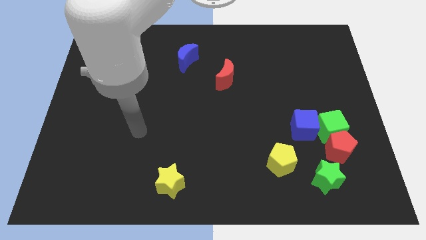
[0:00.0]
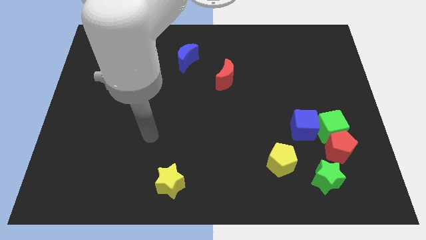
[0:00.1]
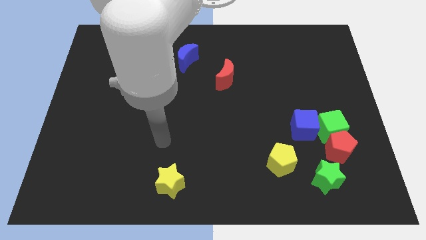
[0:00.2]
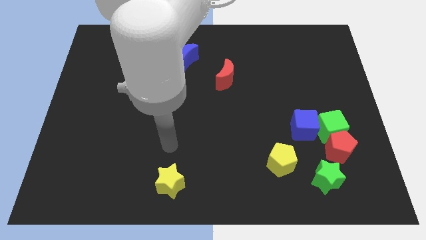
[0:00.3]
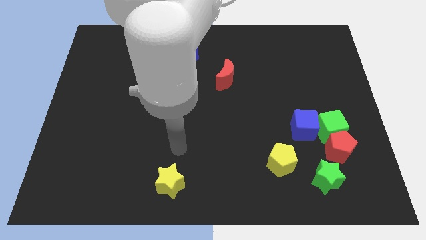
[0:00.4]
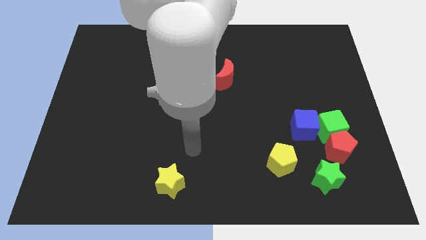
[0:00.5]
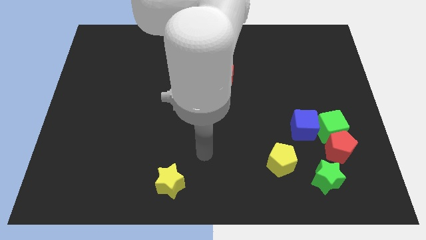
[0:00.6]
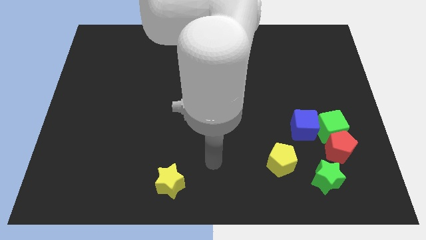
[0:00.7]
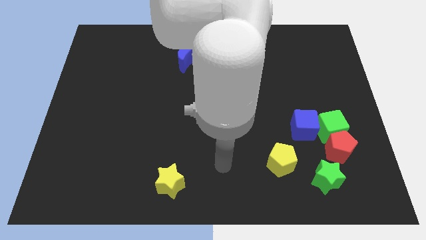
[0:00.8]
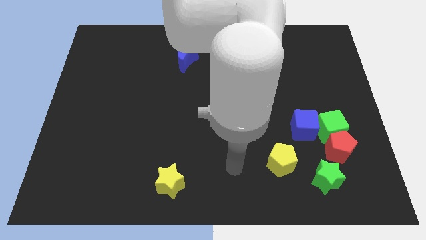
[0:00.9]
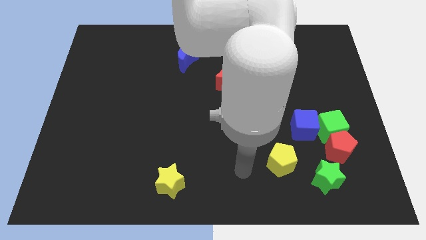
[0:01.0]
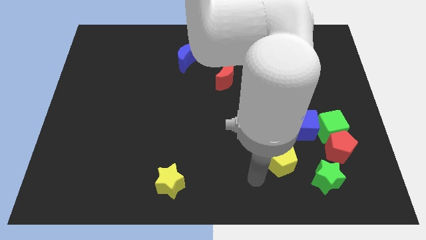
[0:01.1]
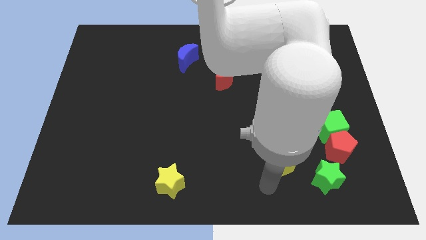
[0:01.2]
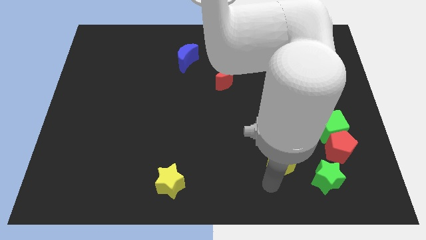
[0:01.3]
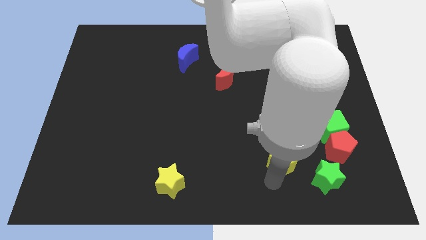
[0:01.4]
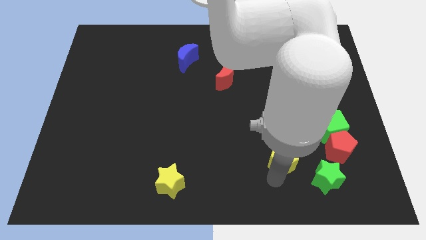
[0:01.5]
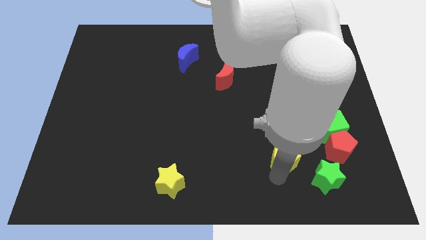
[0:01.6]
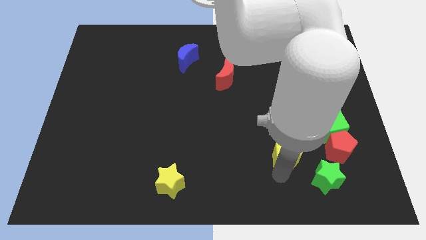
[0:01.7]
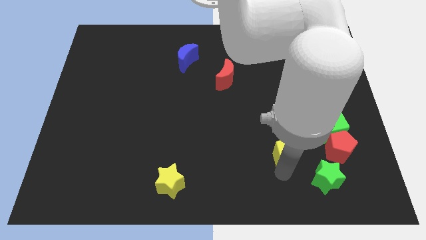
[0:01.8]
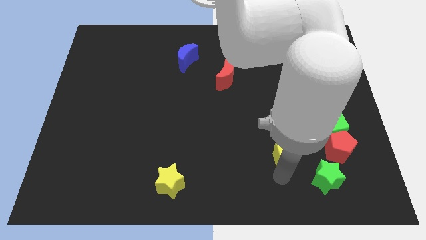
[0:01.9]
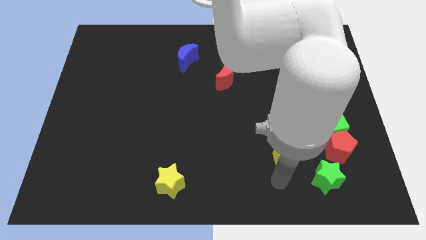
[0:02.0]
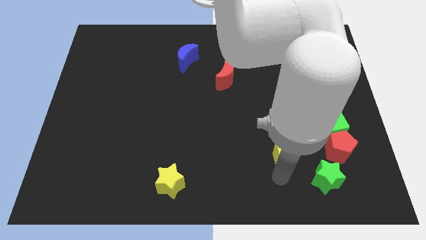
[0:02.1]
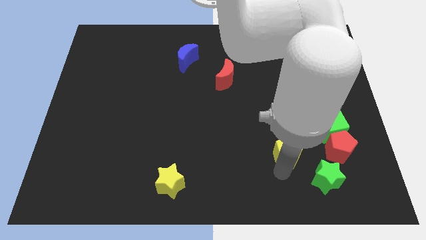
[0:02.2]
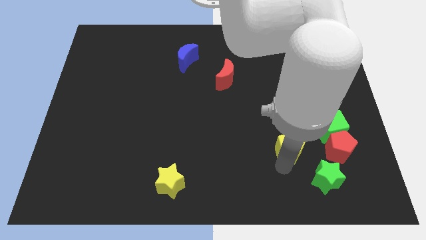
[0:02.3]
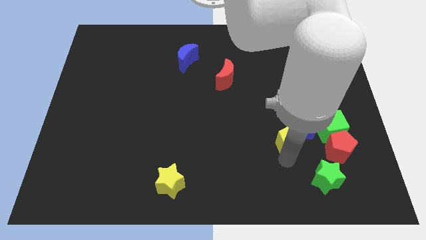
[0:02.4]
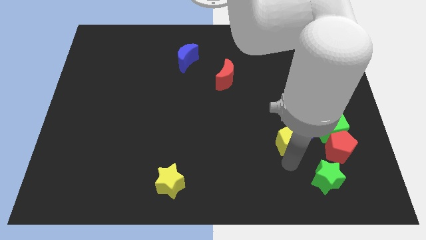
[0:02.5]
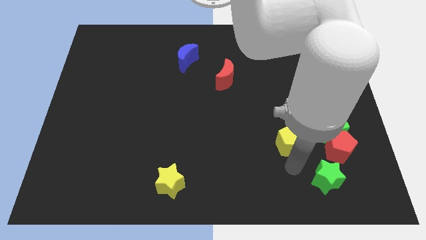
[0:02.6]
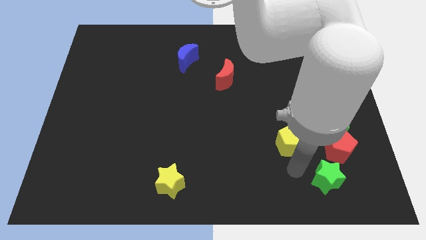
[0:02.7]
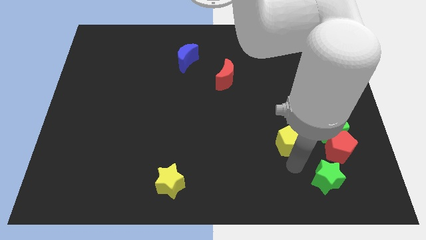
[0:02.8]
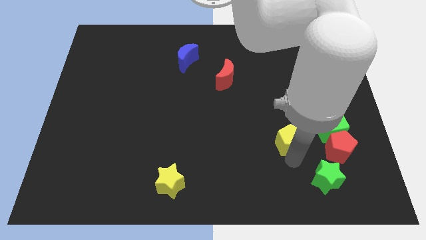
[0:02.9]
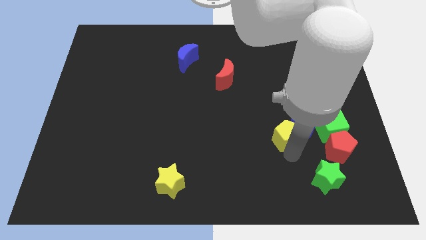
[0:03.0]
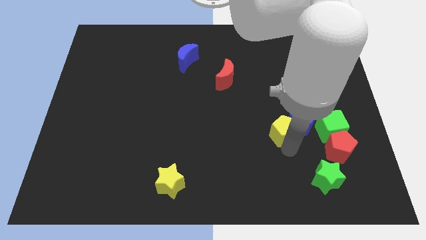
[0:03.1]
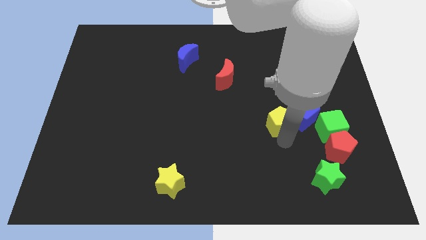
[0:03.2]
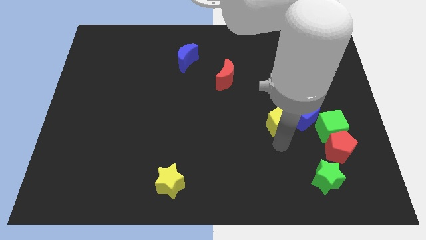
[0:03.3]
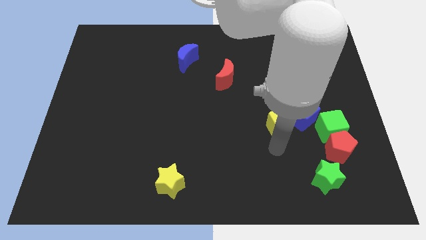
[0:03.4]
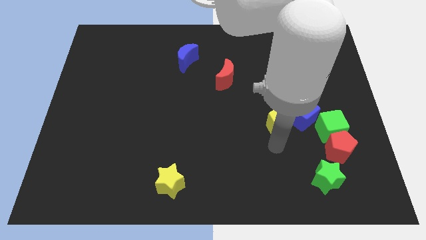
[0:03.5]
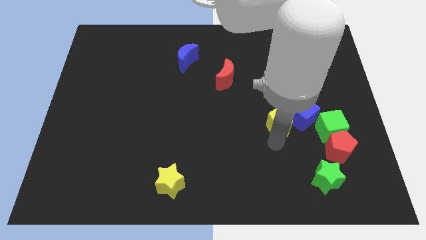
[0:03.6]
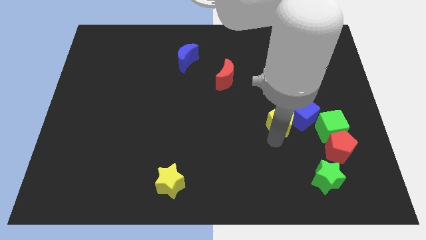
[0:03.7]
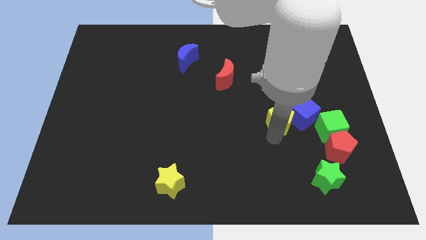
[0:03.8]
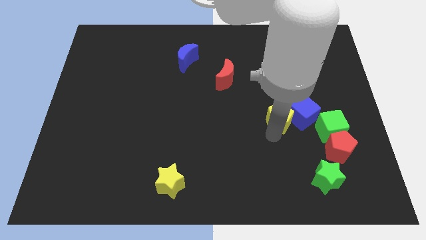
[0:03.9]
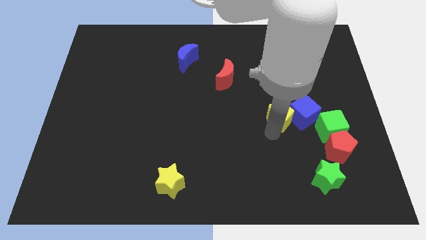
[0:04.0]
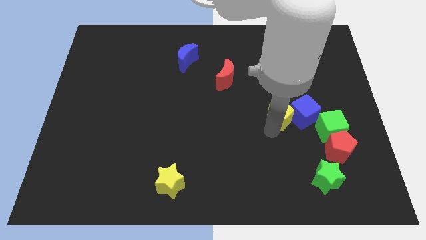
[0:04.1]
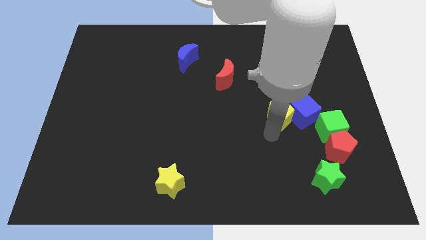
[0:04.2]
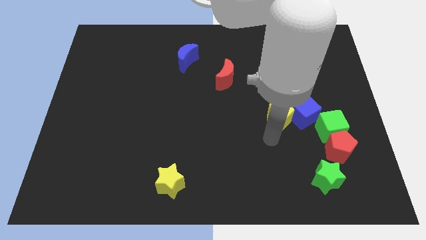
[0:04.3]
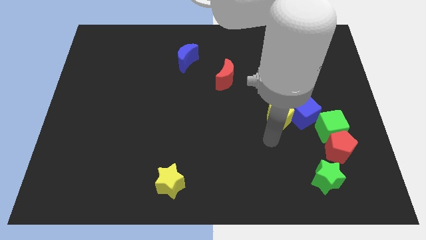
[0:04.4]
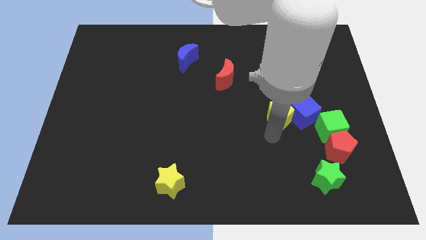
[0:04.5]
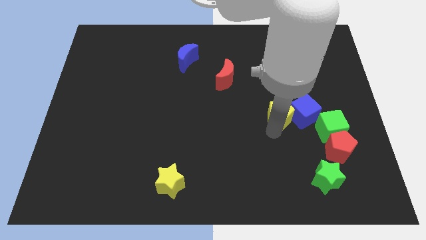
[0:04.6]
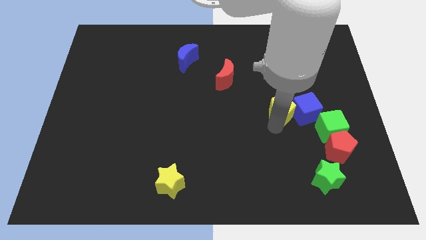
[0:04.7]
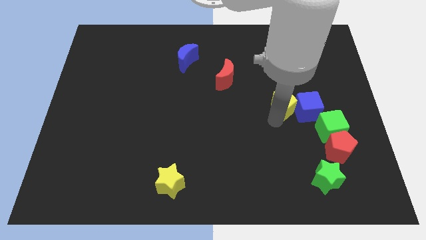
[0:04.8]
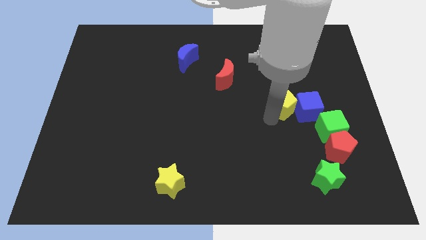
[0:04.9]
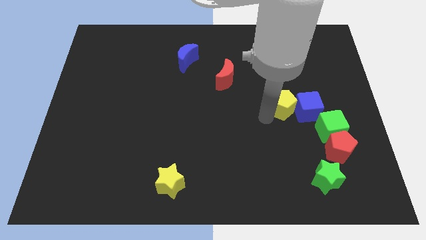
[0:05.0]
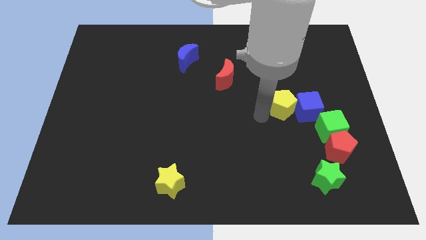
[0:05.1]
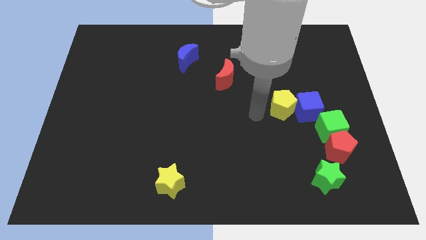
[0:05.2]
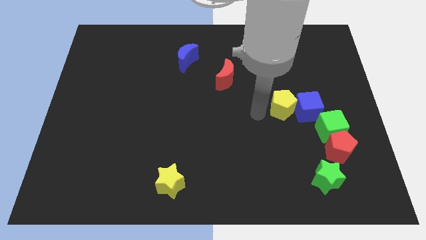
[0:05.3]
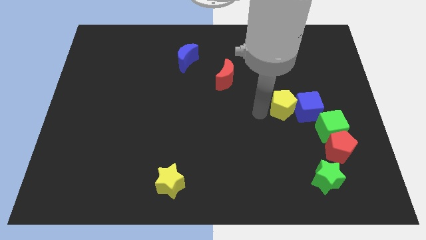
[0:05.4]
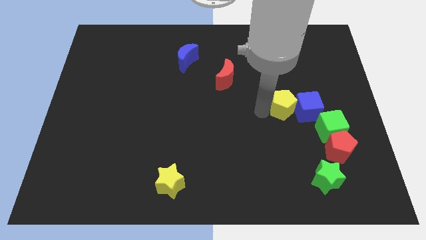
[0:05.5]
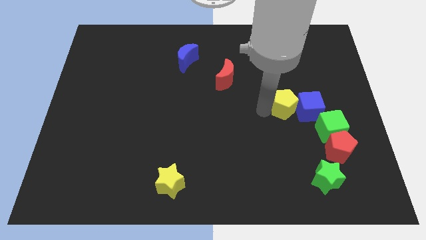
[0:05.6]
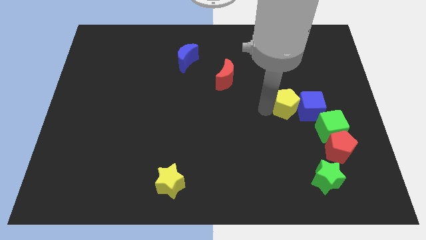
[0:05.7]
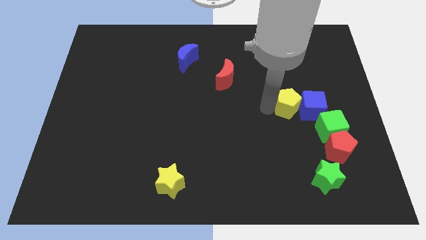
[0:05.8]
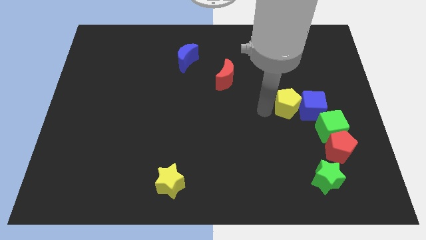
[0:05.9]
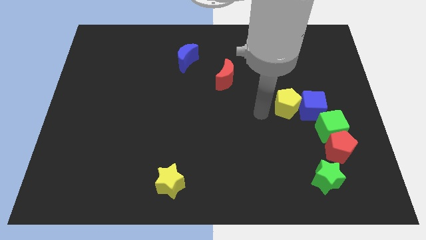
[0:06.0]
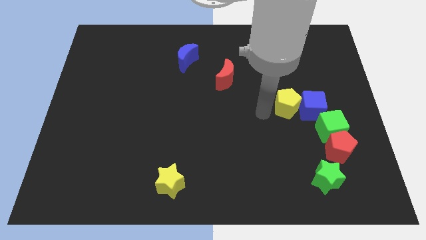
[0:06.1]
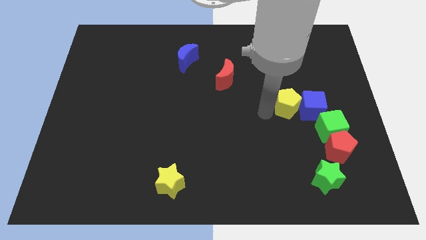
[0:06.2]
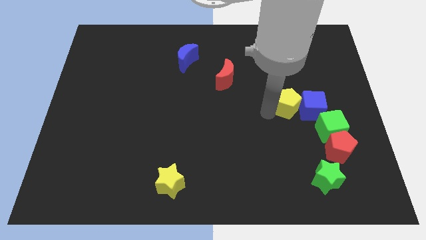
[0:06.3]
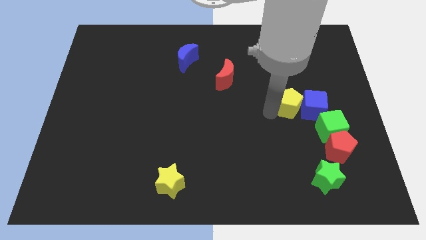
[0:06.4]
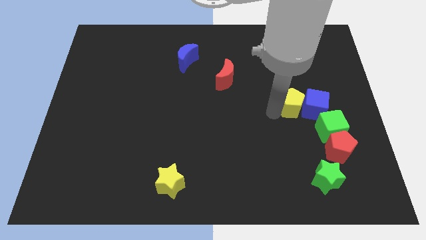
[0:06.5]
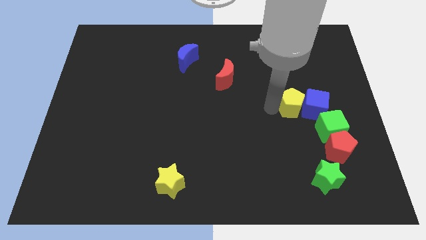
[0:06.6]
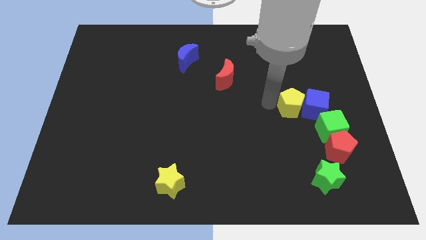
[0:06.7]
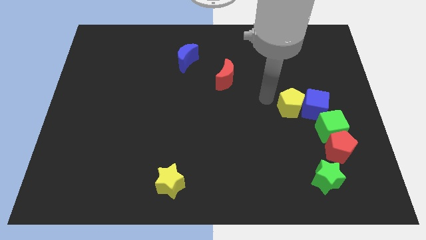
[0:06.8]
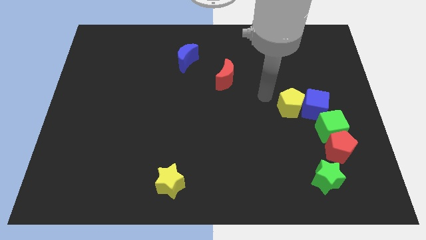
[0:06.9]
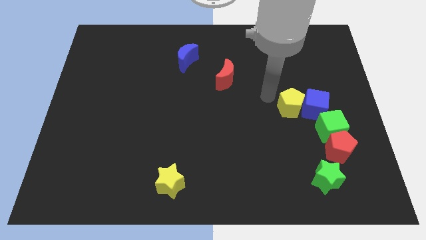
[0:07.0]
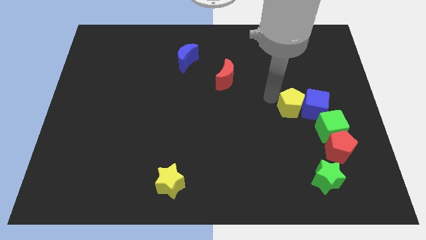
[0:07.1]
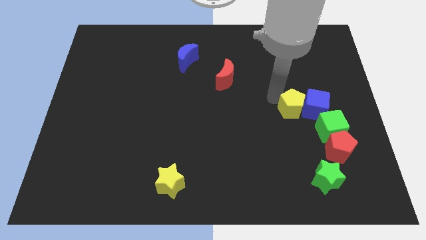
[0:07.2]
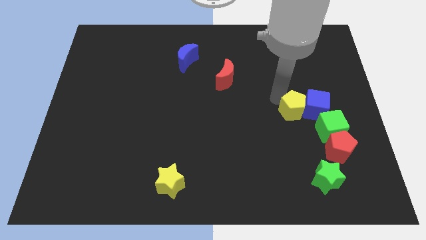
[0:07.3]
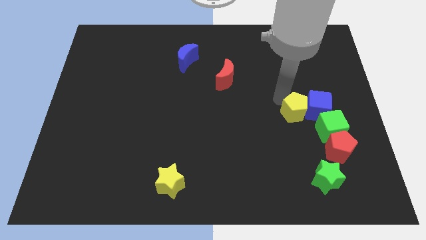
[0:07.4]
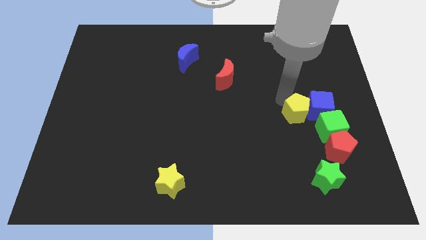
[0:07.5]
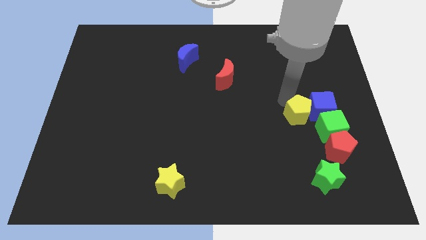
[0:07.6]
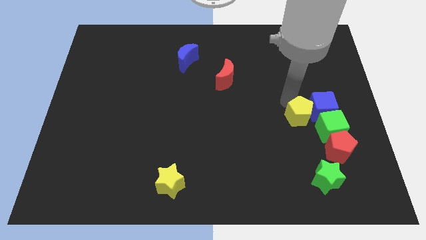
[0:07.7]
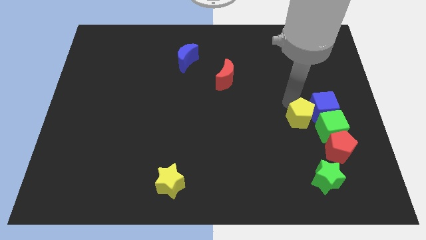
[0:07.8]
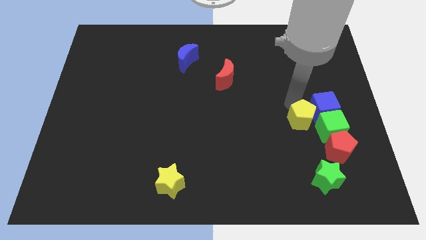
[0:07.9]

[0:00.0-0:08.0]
slide the yellow pentagon to the top of the green star
